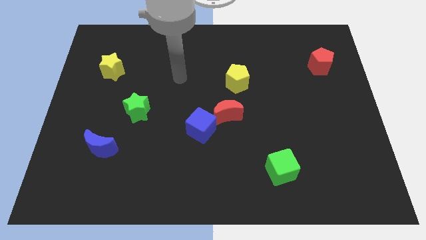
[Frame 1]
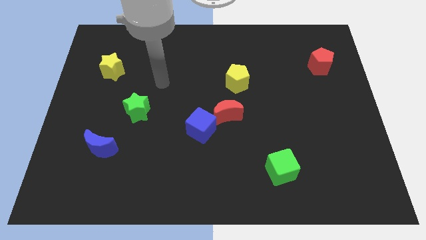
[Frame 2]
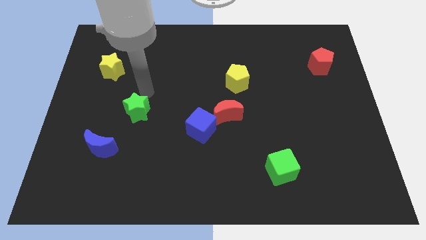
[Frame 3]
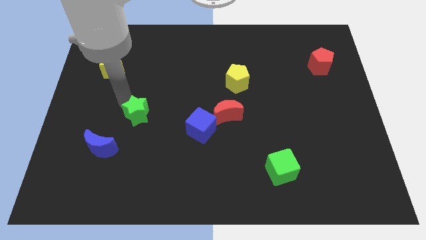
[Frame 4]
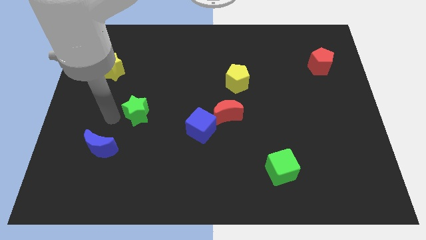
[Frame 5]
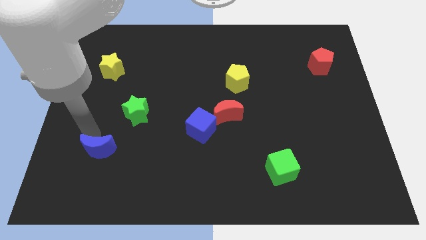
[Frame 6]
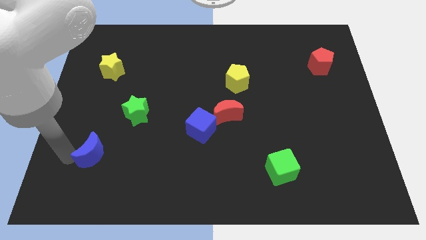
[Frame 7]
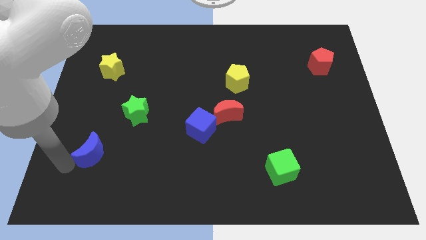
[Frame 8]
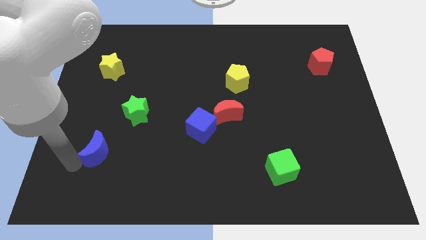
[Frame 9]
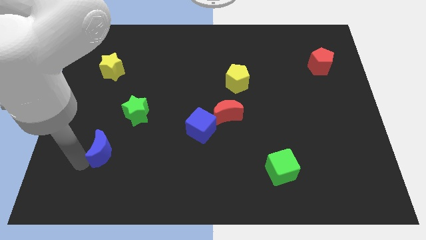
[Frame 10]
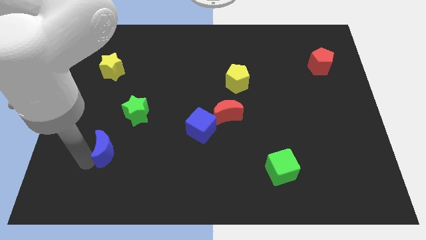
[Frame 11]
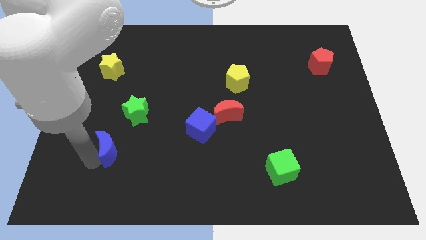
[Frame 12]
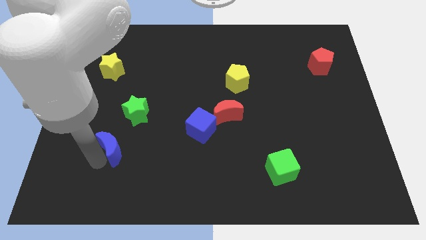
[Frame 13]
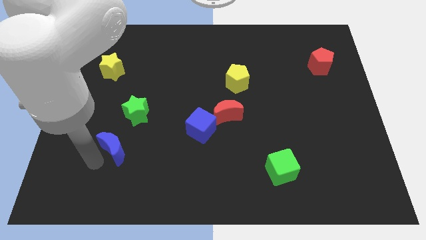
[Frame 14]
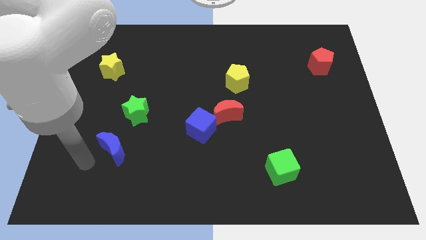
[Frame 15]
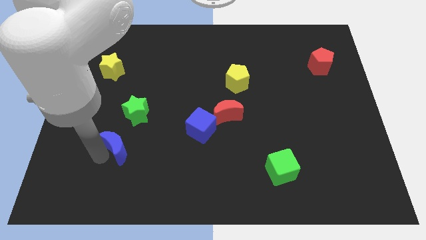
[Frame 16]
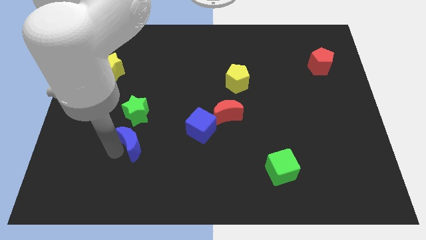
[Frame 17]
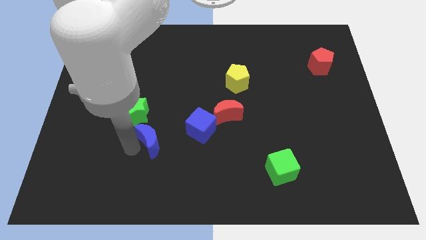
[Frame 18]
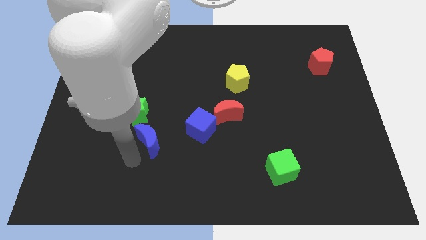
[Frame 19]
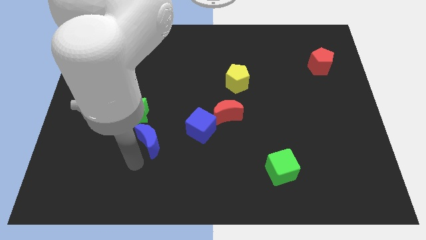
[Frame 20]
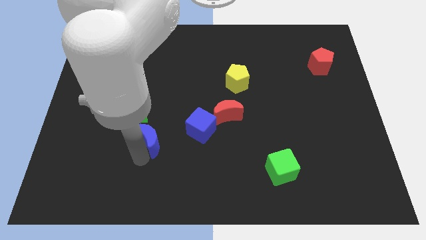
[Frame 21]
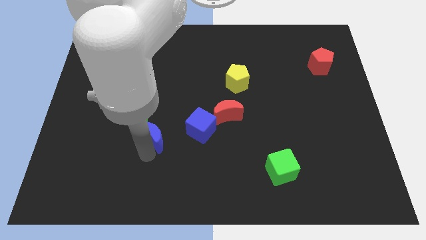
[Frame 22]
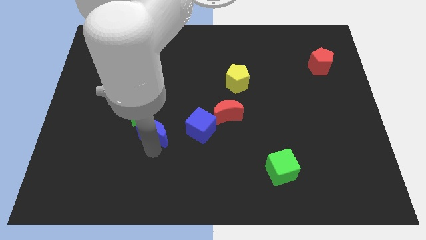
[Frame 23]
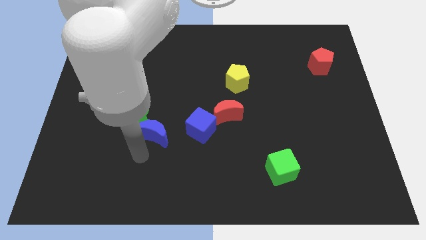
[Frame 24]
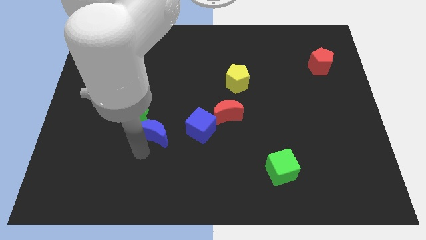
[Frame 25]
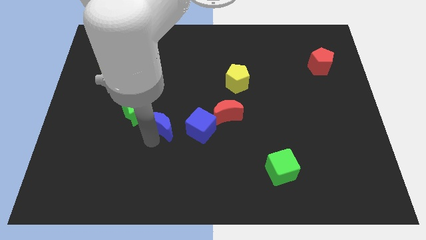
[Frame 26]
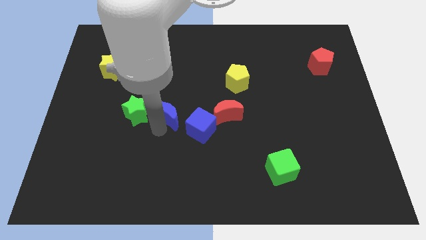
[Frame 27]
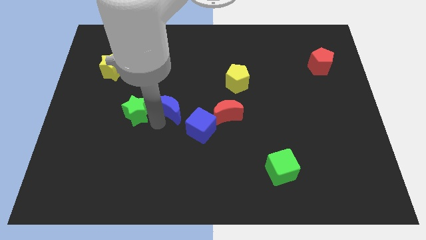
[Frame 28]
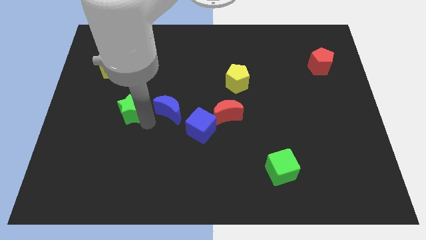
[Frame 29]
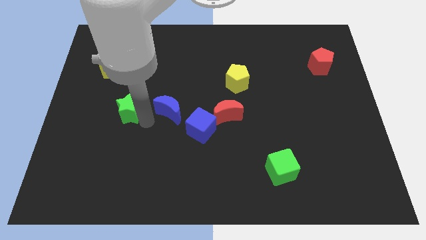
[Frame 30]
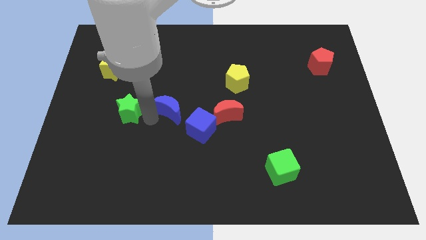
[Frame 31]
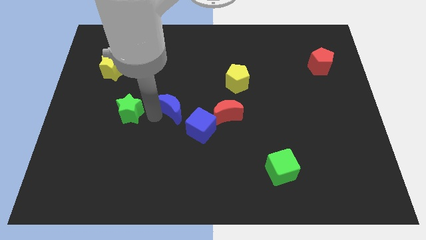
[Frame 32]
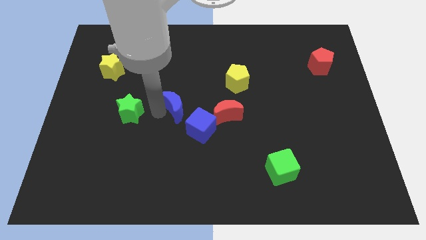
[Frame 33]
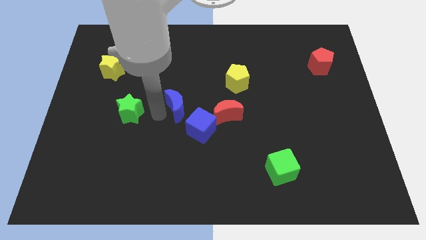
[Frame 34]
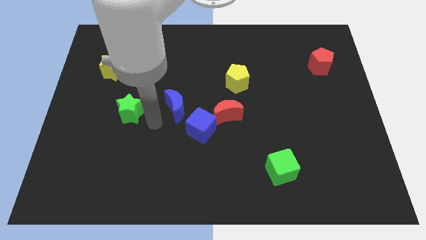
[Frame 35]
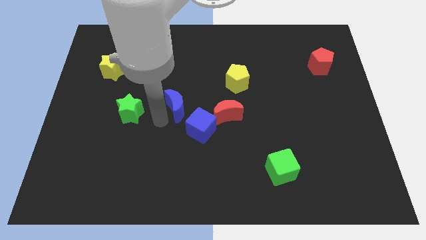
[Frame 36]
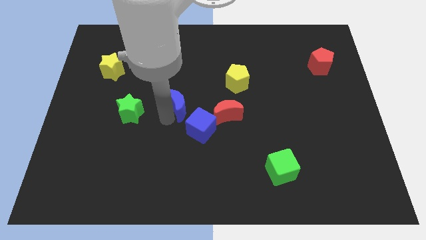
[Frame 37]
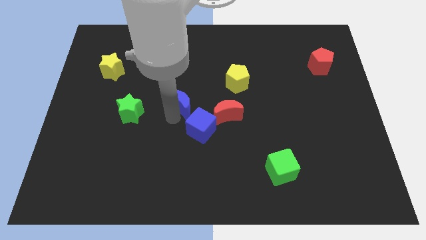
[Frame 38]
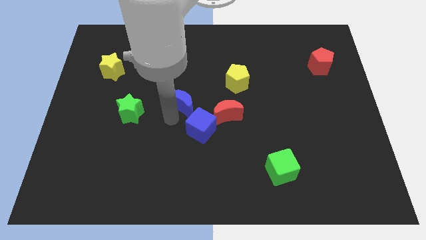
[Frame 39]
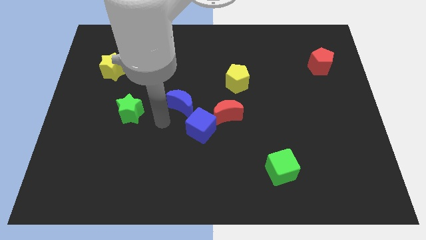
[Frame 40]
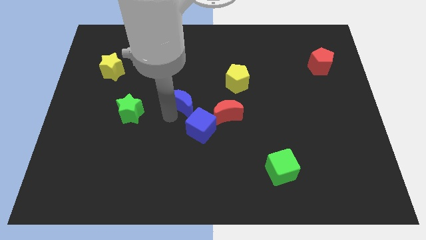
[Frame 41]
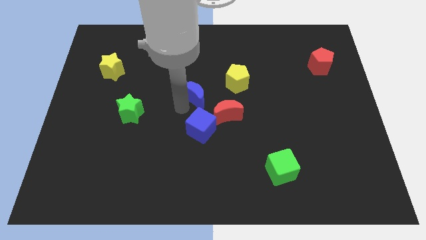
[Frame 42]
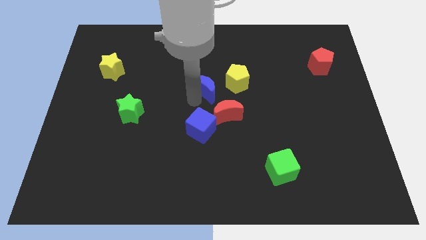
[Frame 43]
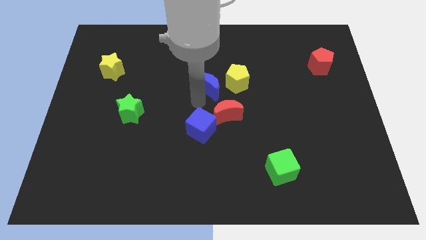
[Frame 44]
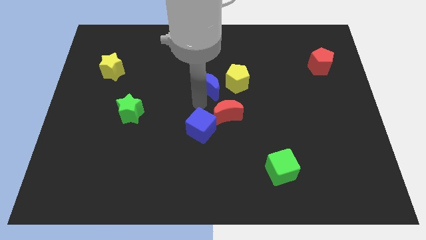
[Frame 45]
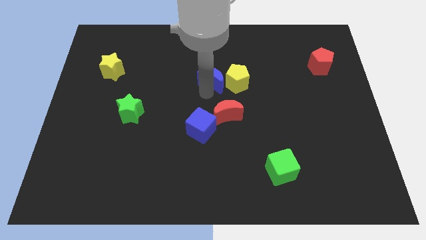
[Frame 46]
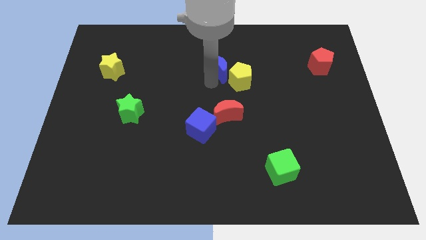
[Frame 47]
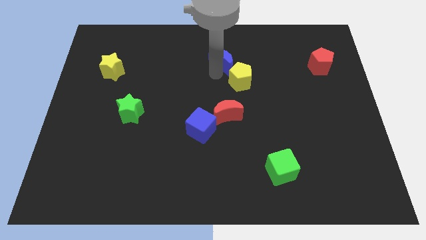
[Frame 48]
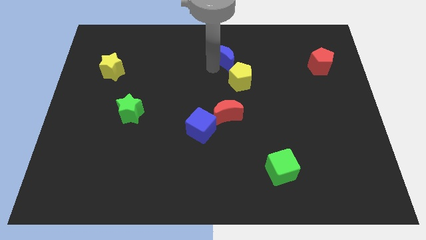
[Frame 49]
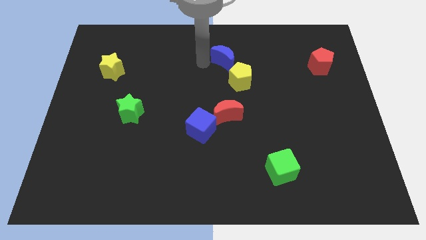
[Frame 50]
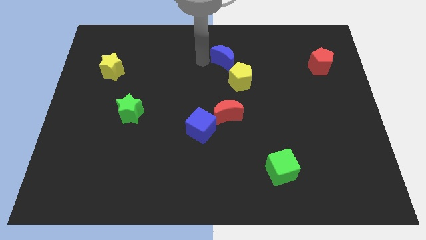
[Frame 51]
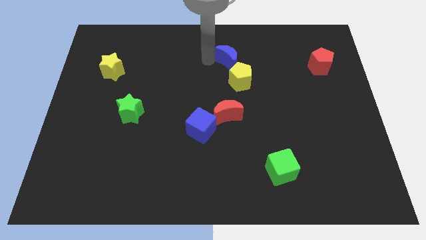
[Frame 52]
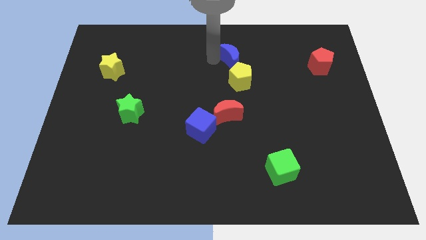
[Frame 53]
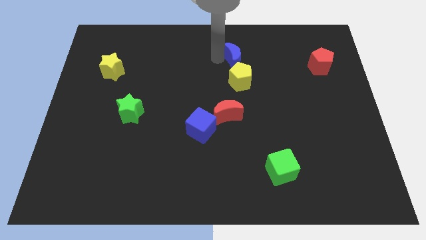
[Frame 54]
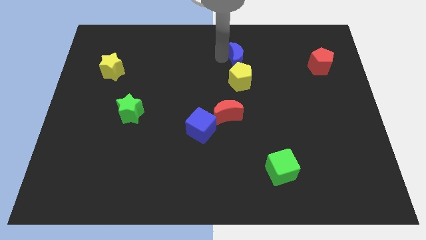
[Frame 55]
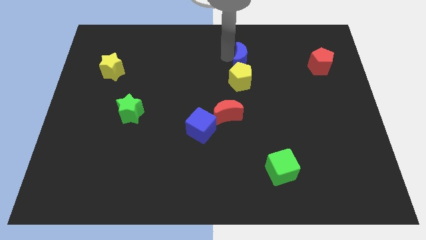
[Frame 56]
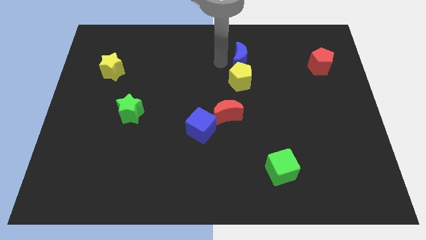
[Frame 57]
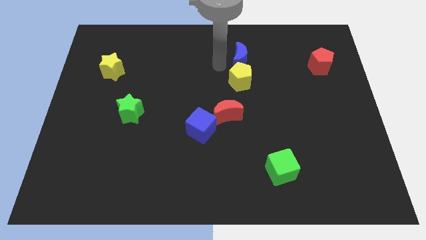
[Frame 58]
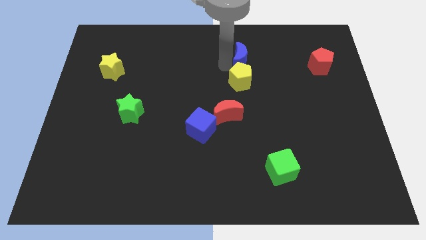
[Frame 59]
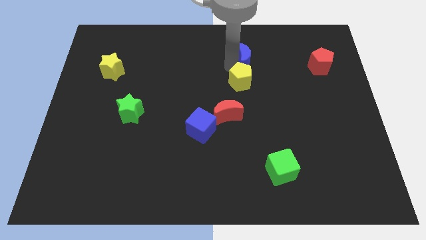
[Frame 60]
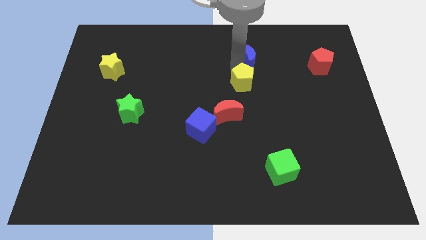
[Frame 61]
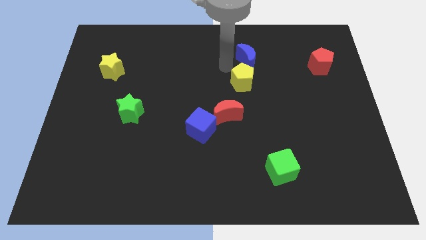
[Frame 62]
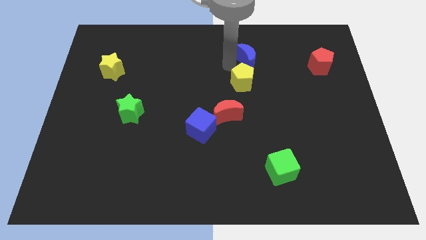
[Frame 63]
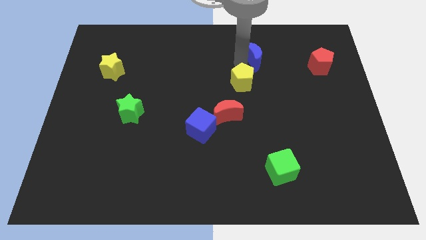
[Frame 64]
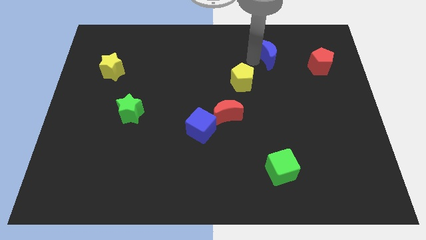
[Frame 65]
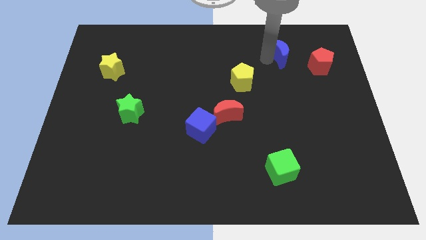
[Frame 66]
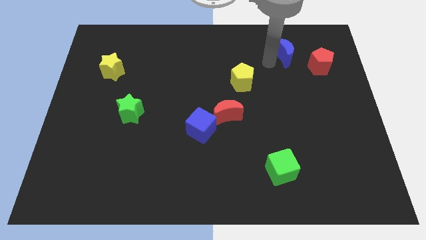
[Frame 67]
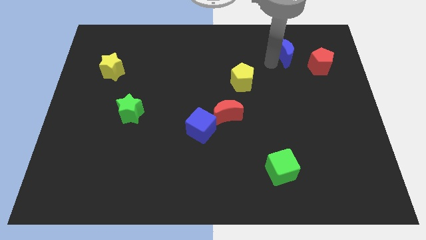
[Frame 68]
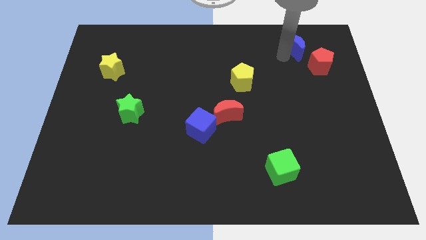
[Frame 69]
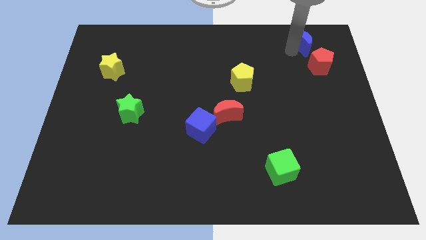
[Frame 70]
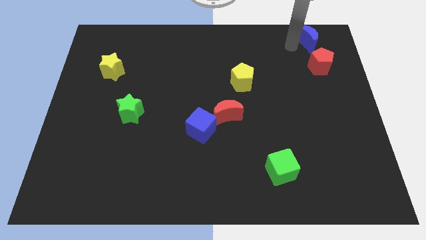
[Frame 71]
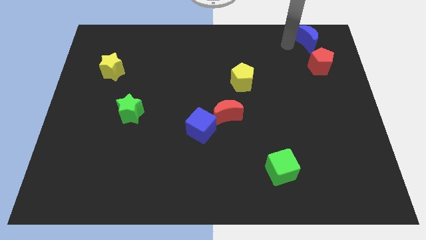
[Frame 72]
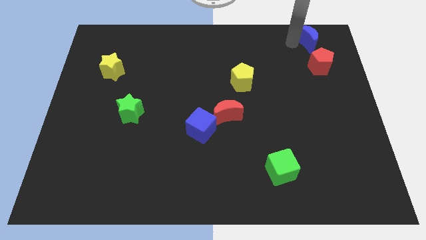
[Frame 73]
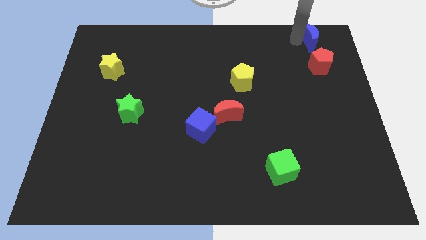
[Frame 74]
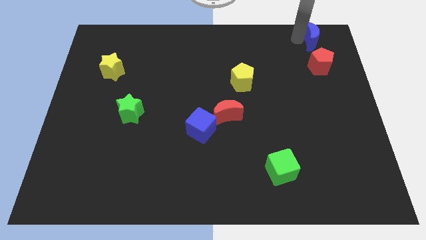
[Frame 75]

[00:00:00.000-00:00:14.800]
move the blue moon to the top right corner
